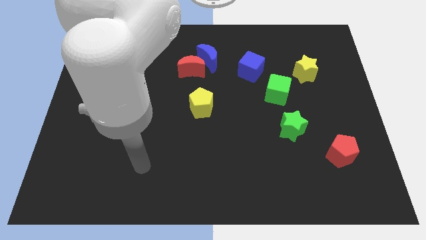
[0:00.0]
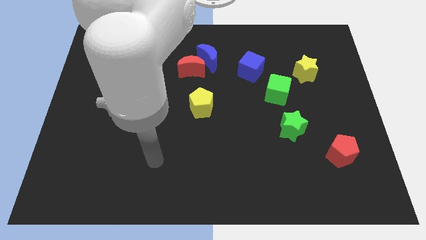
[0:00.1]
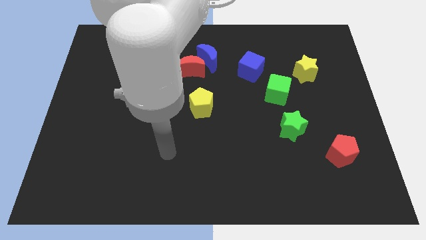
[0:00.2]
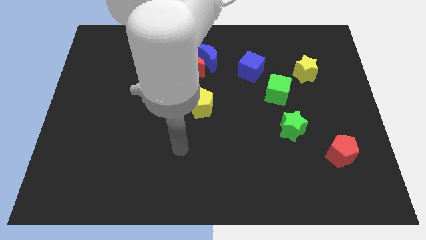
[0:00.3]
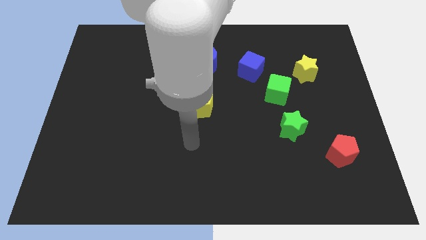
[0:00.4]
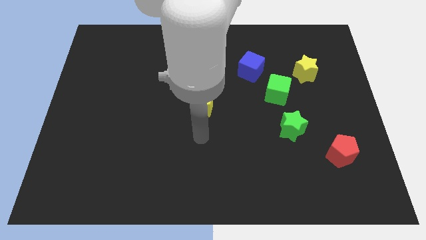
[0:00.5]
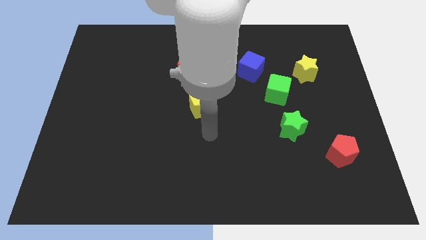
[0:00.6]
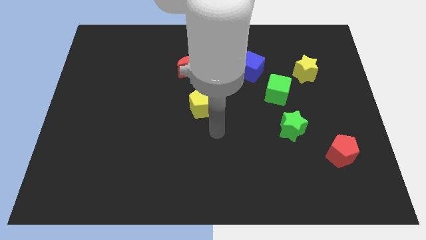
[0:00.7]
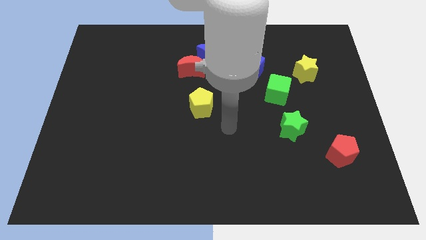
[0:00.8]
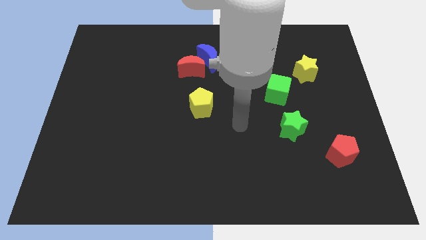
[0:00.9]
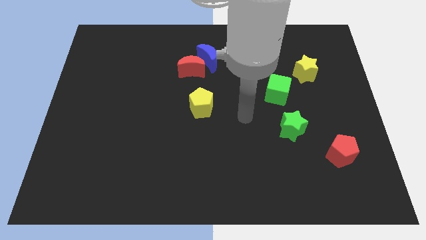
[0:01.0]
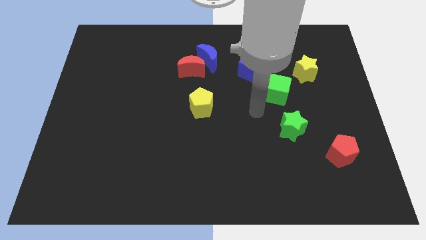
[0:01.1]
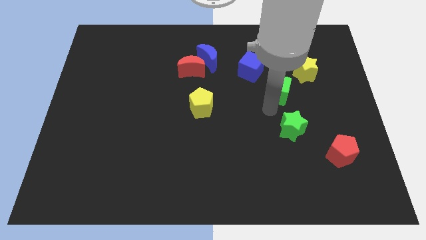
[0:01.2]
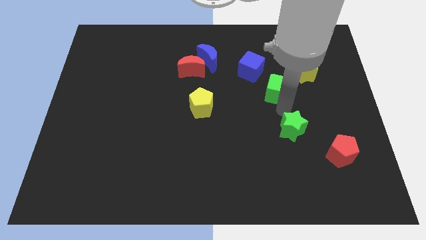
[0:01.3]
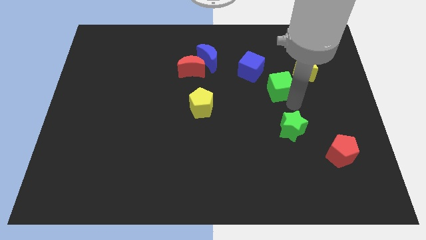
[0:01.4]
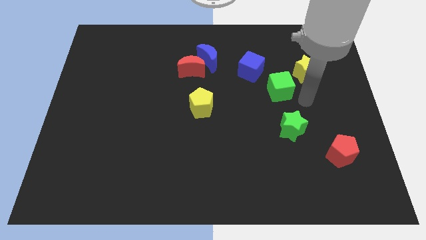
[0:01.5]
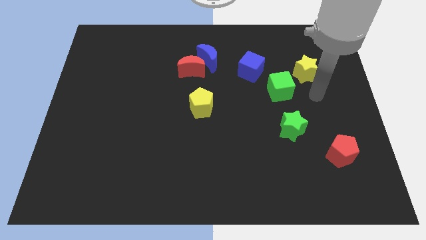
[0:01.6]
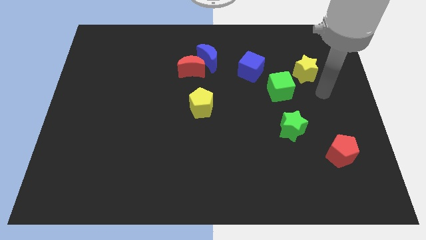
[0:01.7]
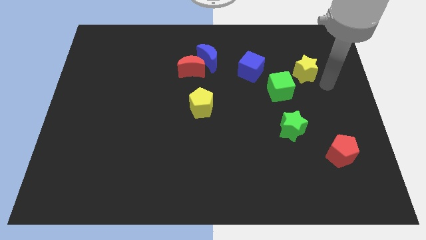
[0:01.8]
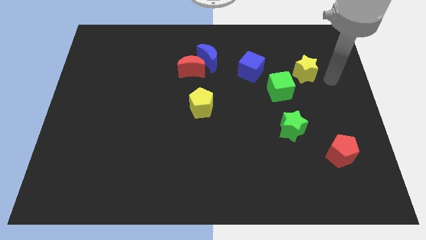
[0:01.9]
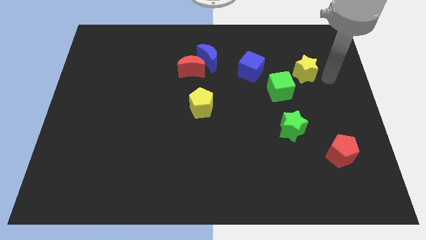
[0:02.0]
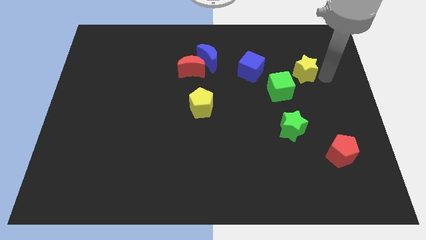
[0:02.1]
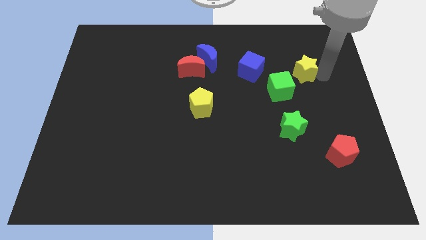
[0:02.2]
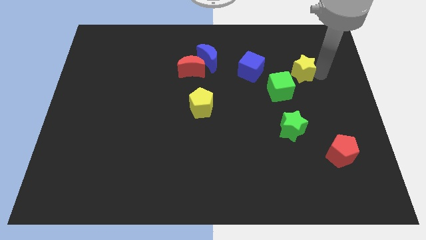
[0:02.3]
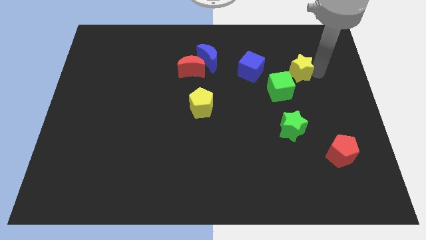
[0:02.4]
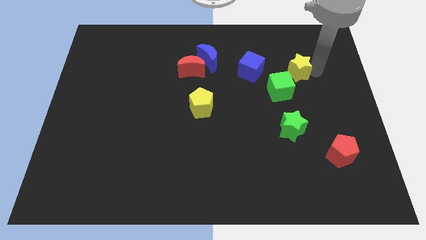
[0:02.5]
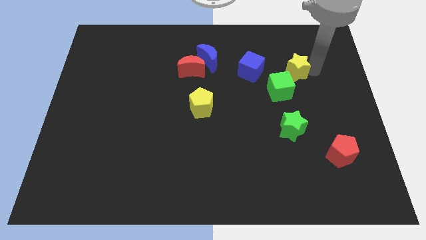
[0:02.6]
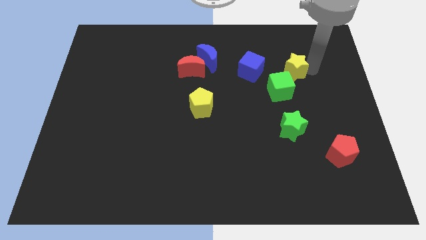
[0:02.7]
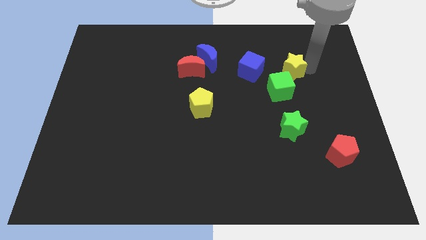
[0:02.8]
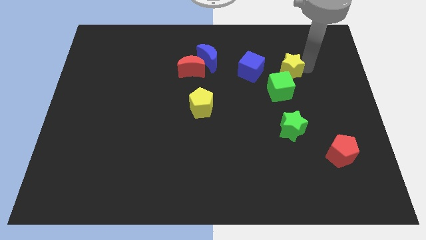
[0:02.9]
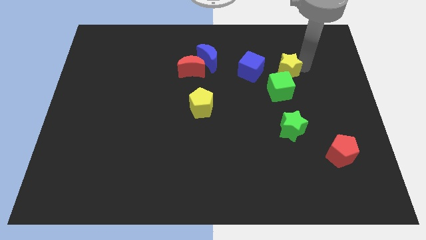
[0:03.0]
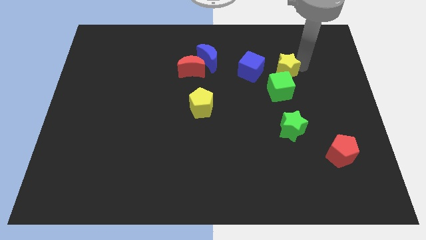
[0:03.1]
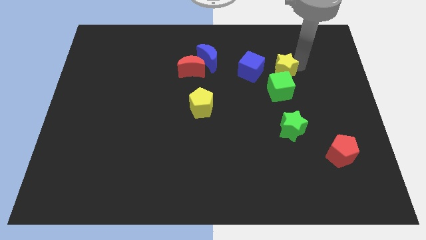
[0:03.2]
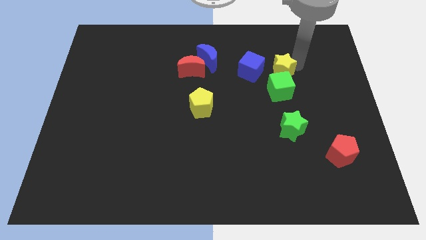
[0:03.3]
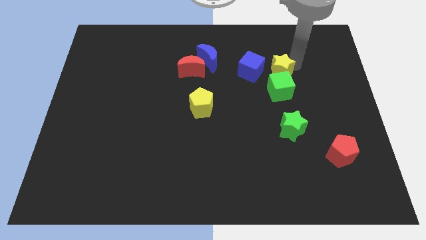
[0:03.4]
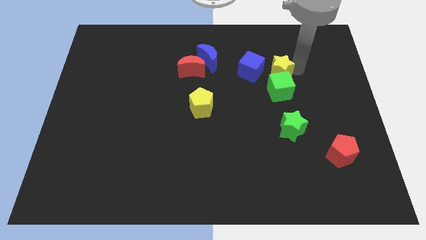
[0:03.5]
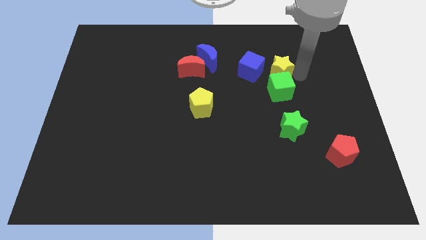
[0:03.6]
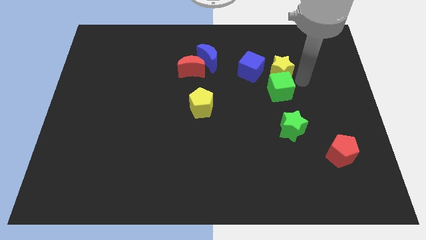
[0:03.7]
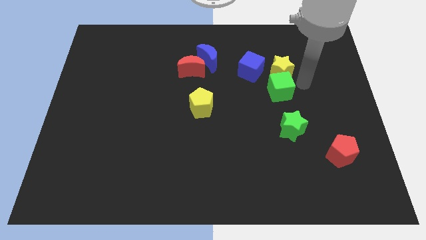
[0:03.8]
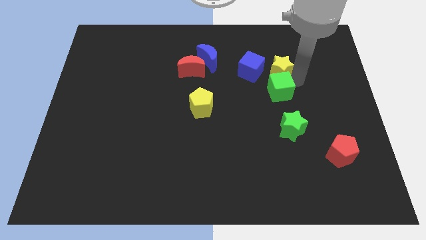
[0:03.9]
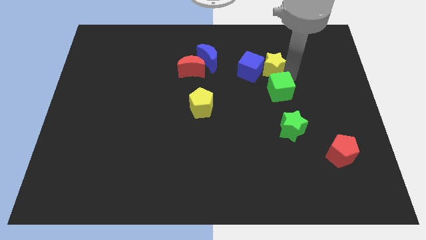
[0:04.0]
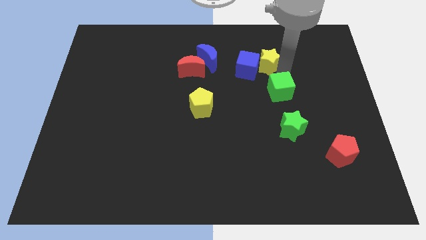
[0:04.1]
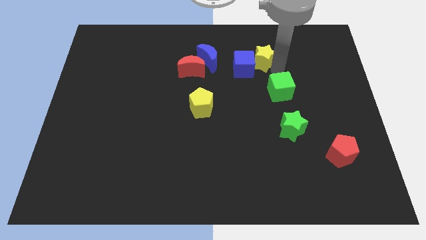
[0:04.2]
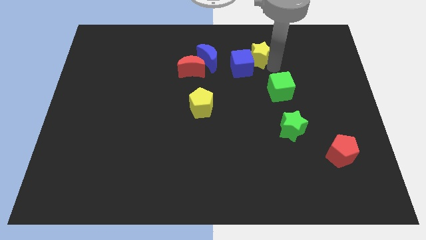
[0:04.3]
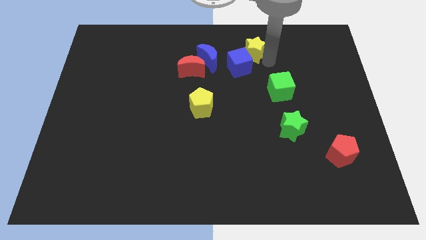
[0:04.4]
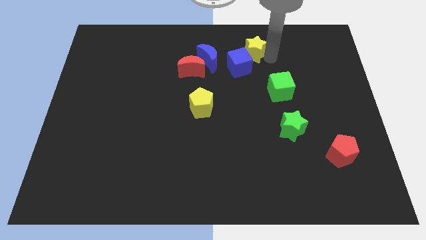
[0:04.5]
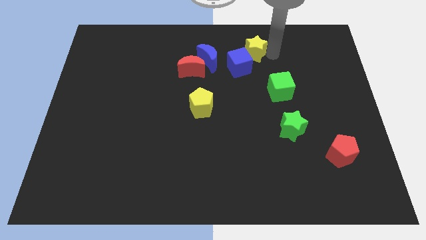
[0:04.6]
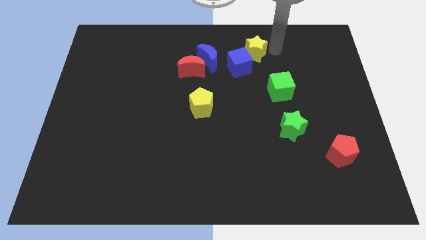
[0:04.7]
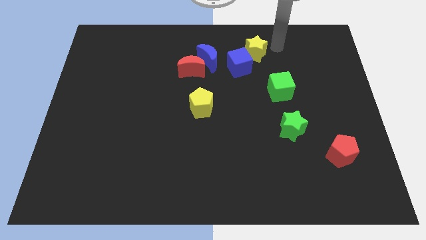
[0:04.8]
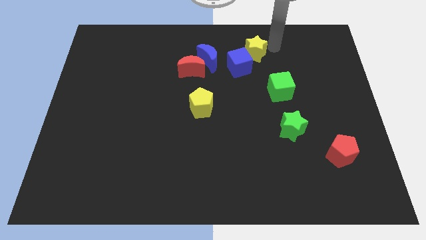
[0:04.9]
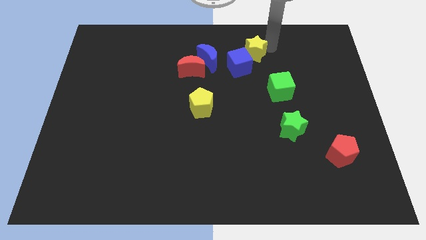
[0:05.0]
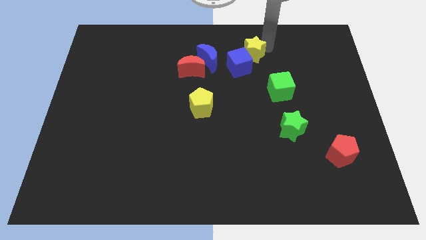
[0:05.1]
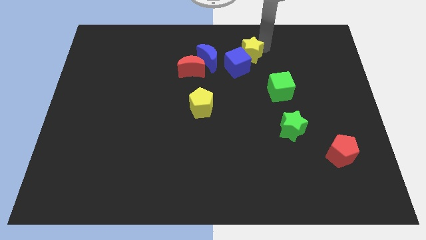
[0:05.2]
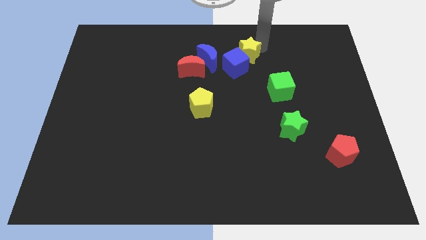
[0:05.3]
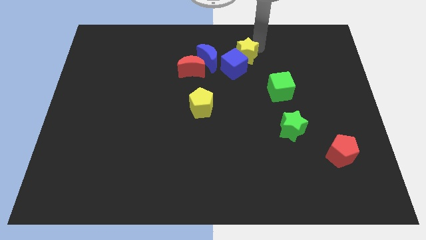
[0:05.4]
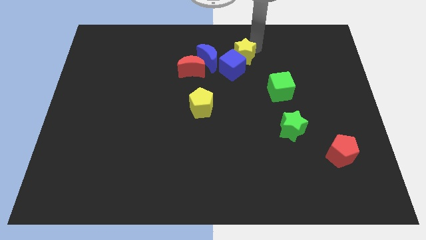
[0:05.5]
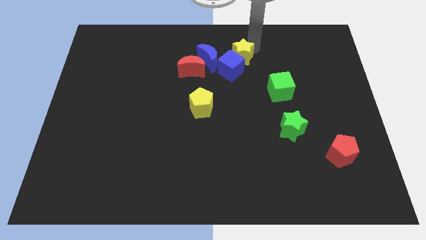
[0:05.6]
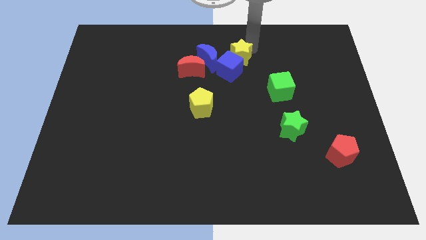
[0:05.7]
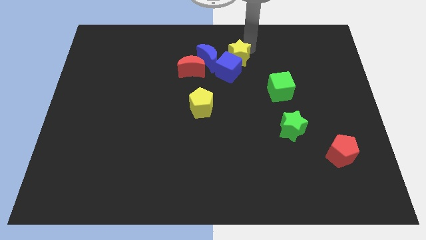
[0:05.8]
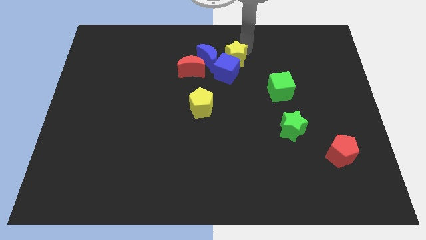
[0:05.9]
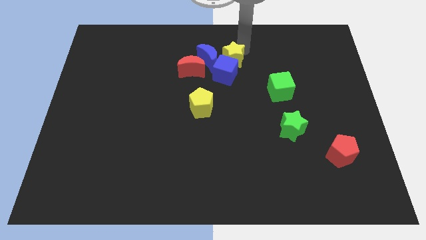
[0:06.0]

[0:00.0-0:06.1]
move the yellow star next to the blue moon

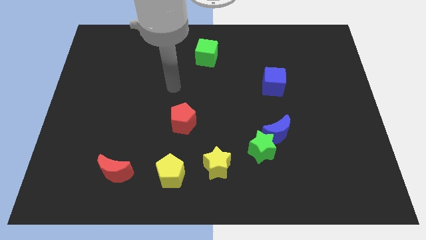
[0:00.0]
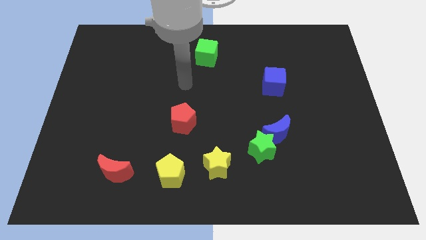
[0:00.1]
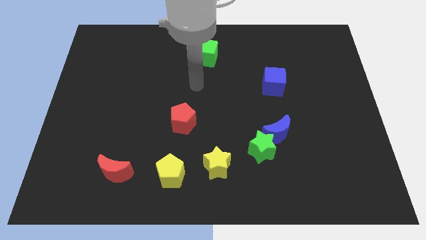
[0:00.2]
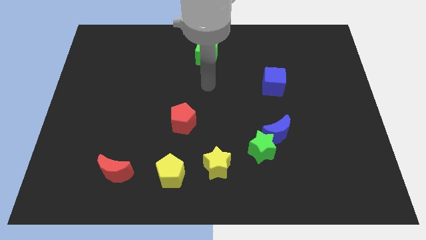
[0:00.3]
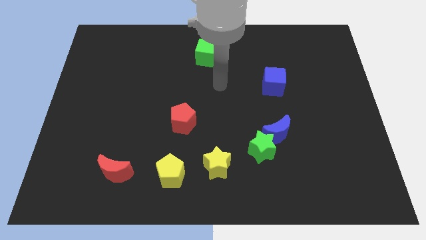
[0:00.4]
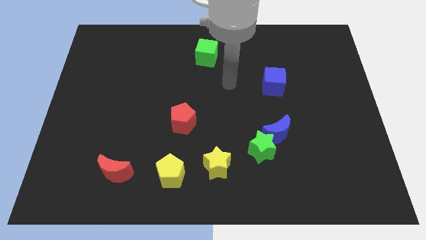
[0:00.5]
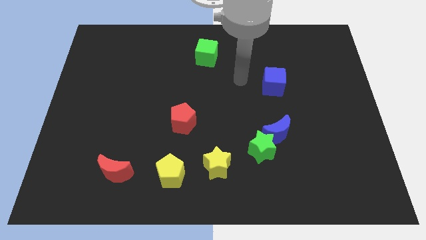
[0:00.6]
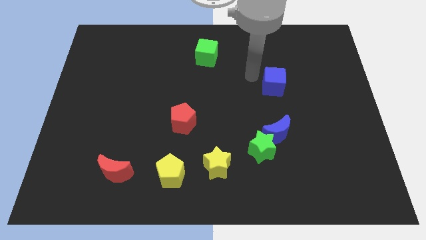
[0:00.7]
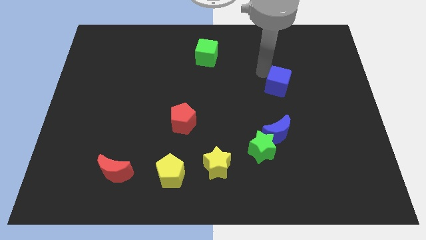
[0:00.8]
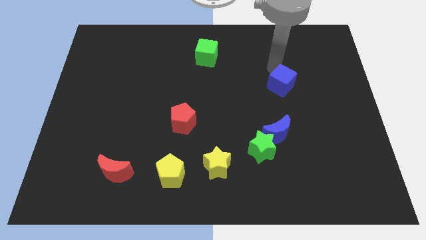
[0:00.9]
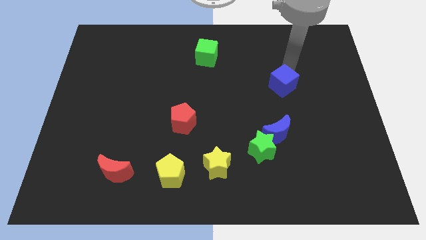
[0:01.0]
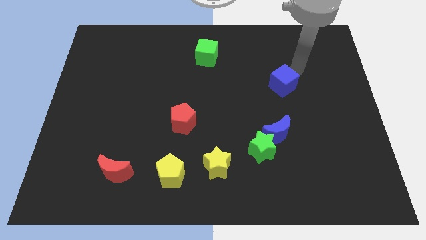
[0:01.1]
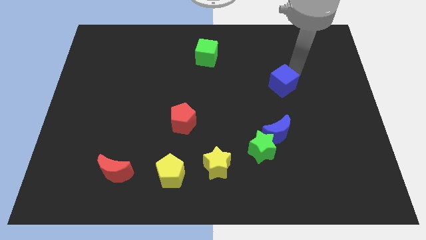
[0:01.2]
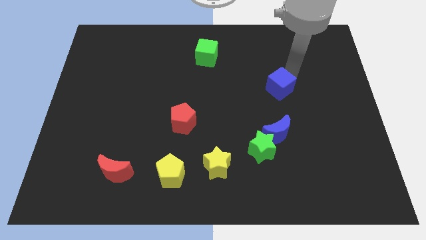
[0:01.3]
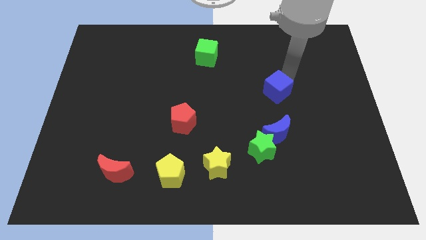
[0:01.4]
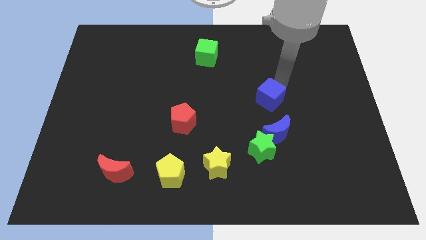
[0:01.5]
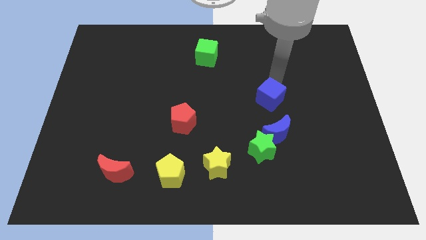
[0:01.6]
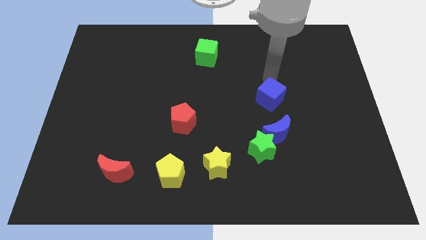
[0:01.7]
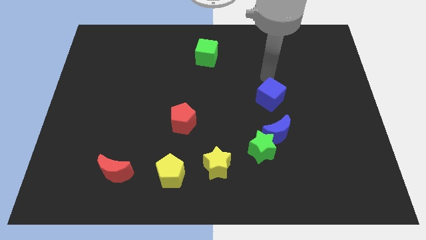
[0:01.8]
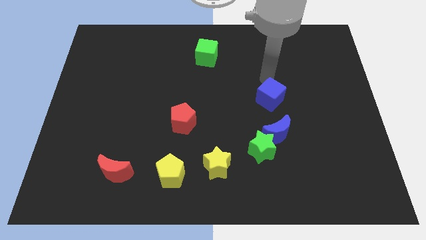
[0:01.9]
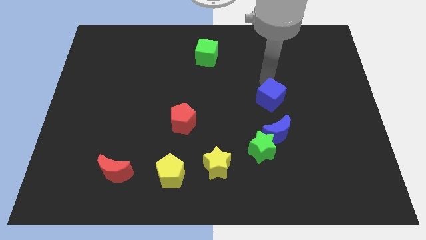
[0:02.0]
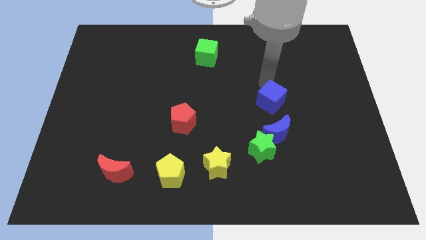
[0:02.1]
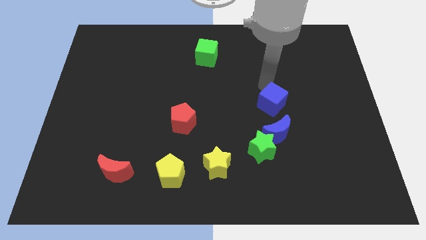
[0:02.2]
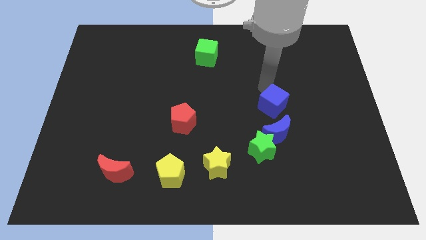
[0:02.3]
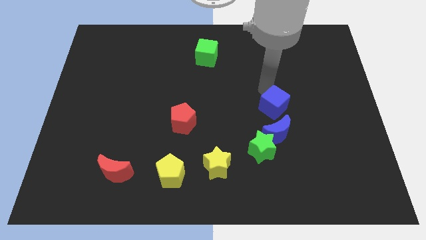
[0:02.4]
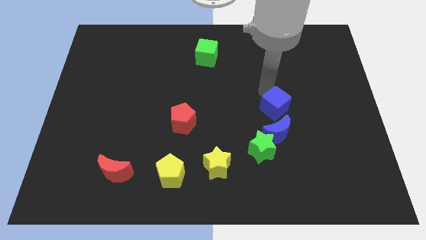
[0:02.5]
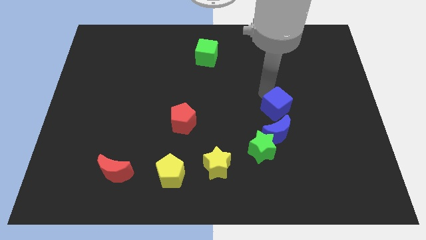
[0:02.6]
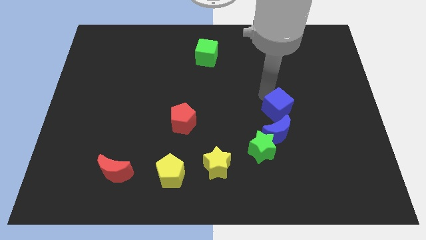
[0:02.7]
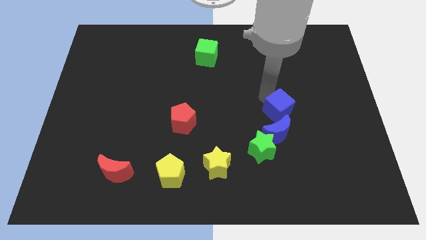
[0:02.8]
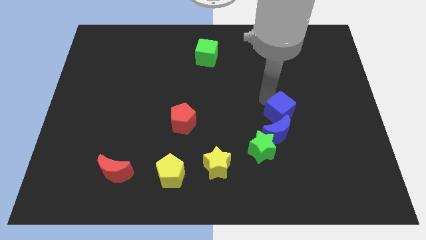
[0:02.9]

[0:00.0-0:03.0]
slide the blue cube next to the blue moon
